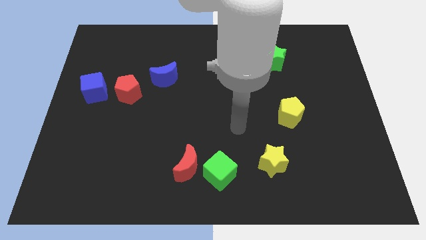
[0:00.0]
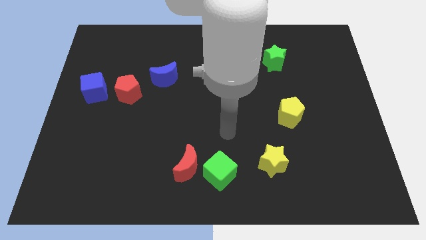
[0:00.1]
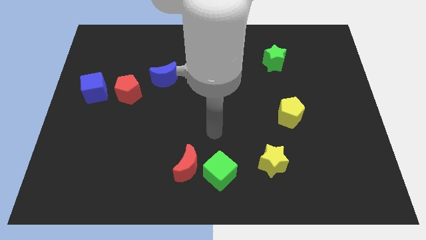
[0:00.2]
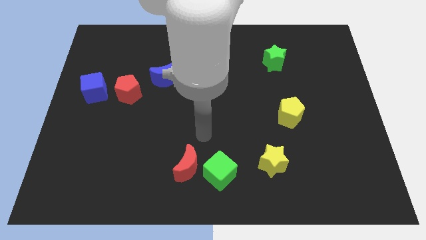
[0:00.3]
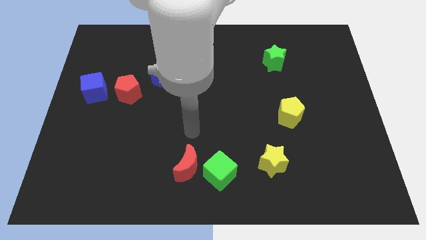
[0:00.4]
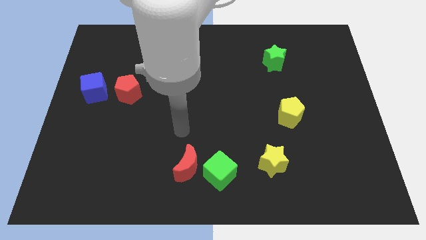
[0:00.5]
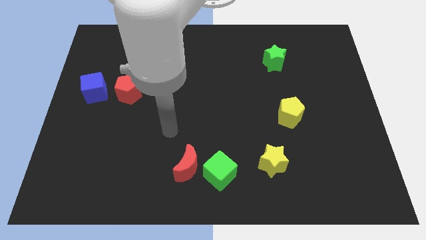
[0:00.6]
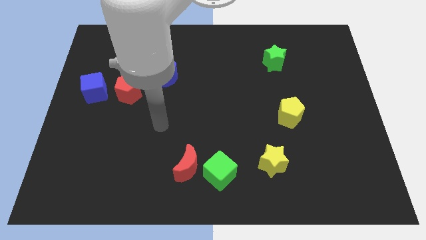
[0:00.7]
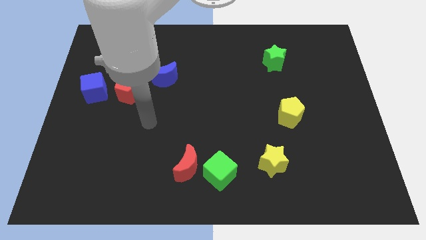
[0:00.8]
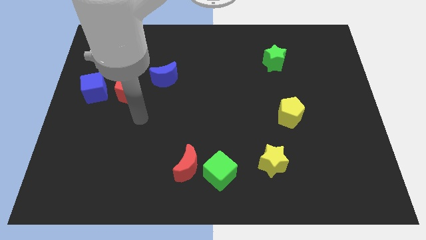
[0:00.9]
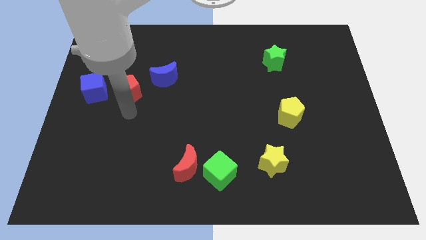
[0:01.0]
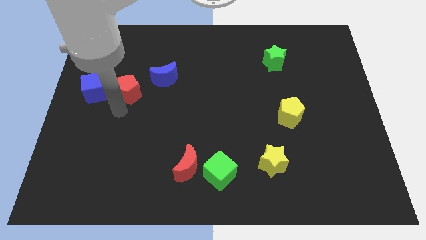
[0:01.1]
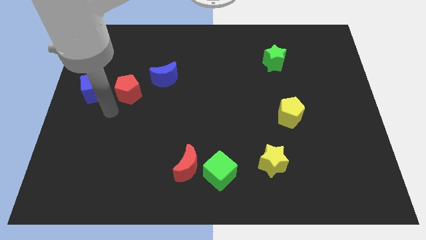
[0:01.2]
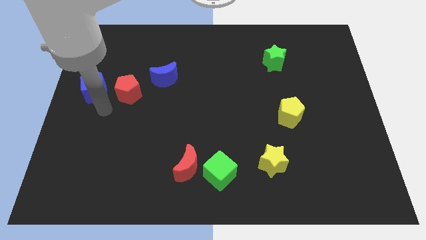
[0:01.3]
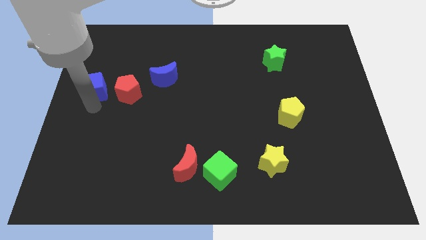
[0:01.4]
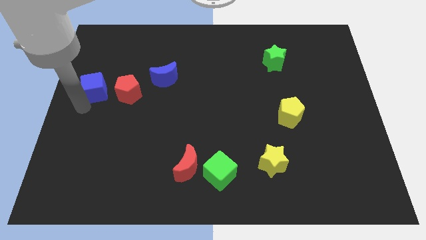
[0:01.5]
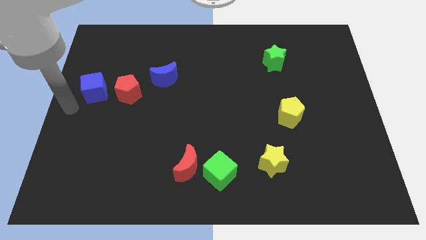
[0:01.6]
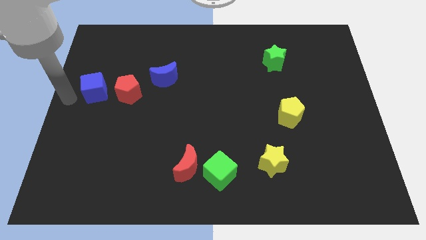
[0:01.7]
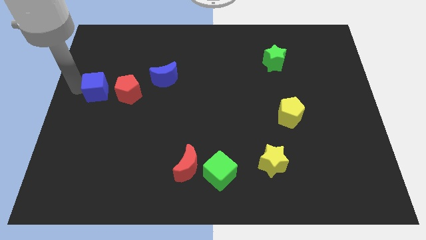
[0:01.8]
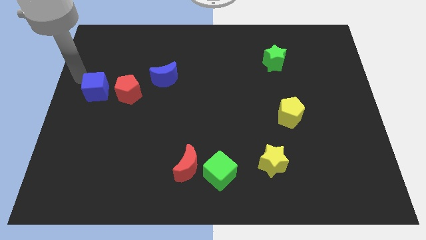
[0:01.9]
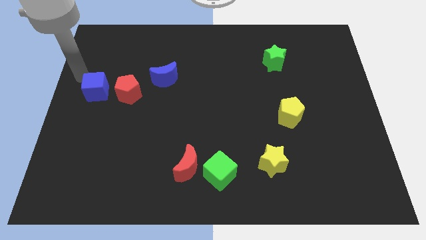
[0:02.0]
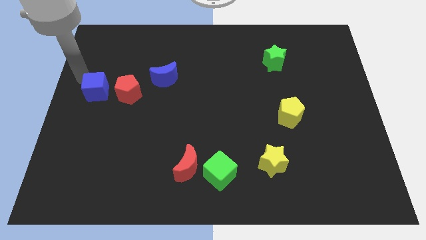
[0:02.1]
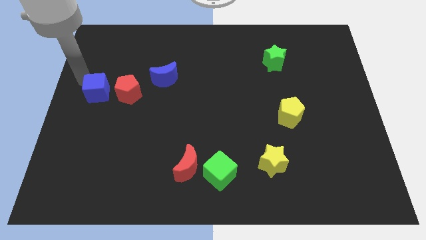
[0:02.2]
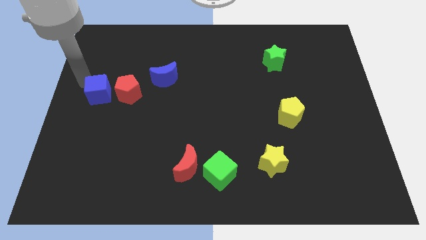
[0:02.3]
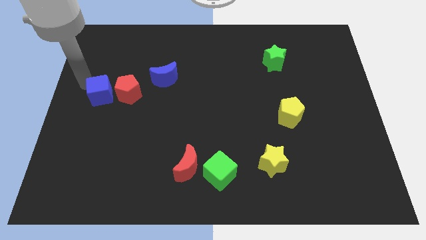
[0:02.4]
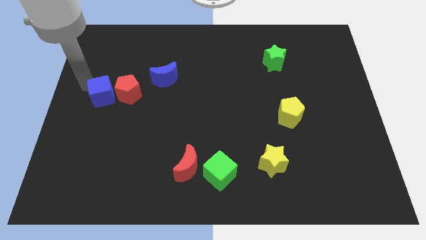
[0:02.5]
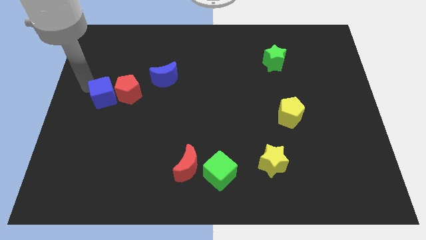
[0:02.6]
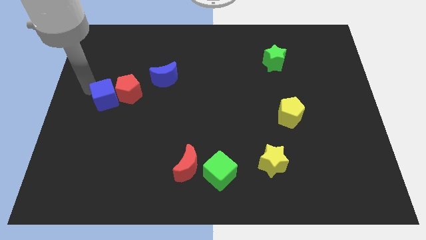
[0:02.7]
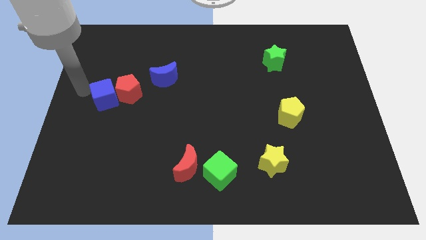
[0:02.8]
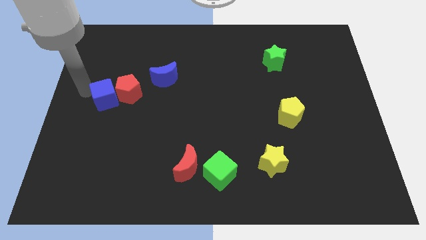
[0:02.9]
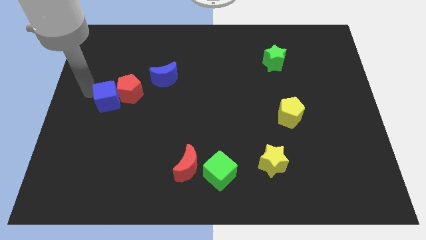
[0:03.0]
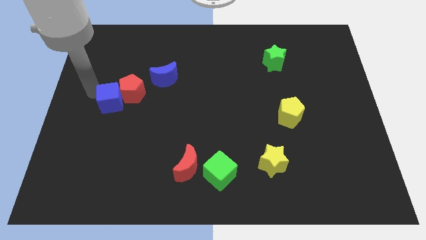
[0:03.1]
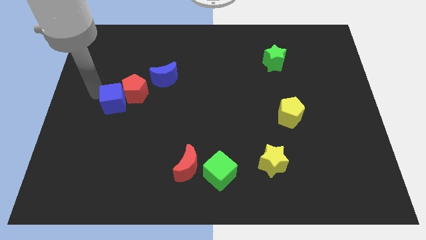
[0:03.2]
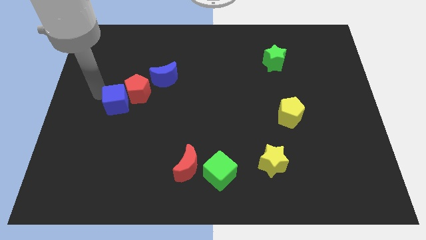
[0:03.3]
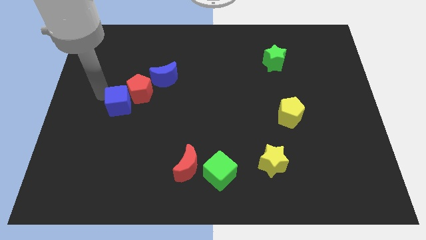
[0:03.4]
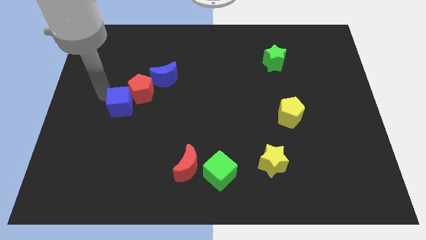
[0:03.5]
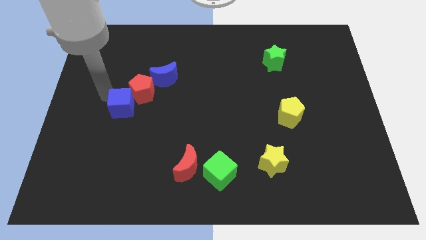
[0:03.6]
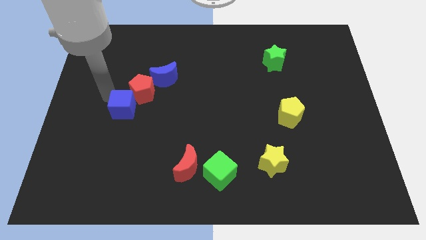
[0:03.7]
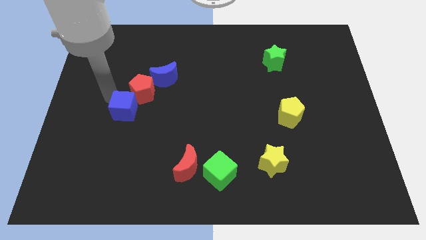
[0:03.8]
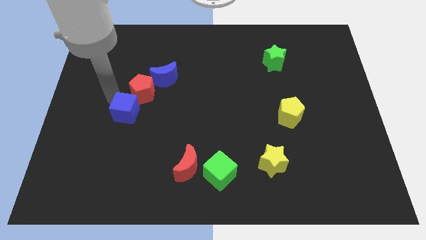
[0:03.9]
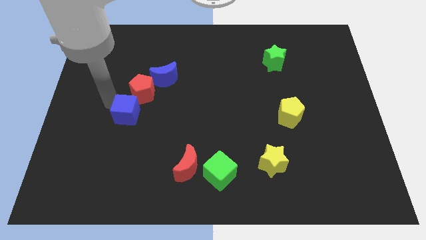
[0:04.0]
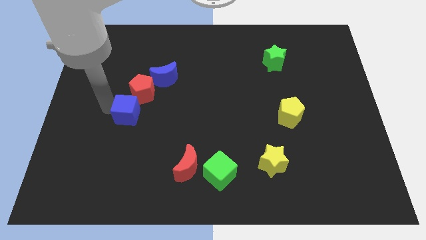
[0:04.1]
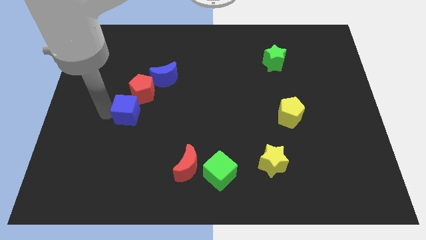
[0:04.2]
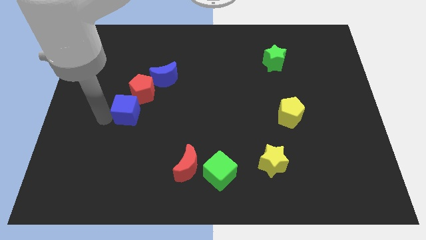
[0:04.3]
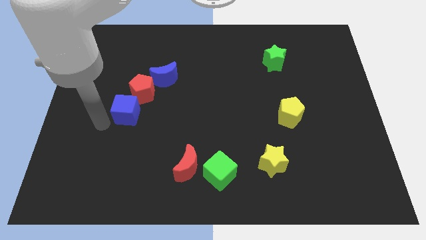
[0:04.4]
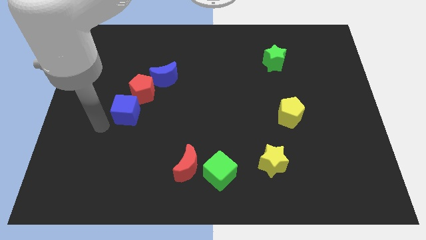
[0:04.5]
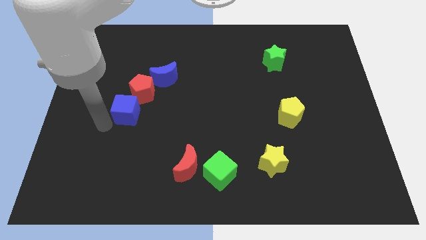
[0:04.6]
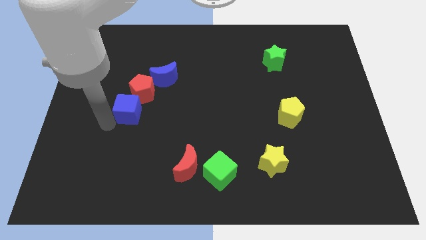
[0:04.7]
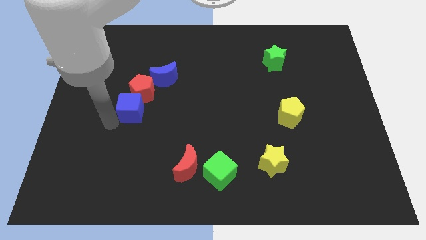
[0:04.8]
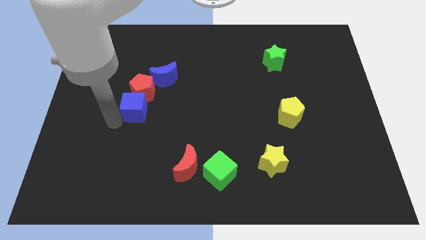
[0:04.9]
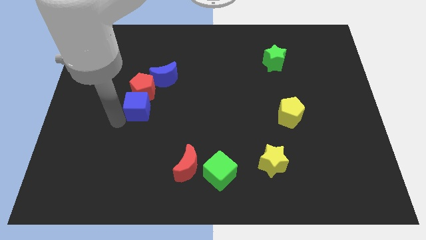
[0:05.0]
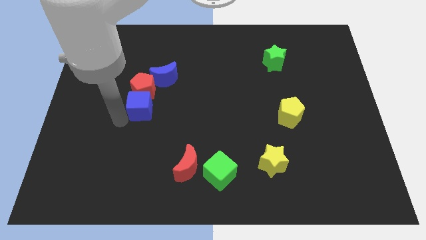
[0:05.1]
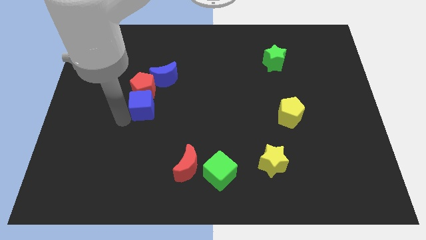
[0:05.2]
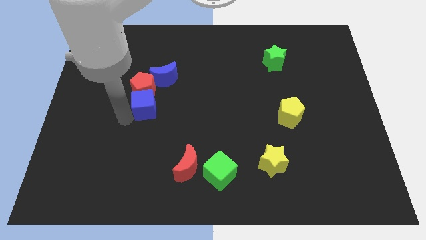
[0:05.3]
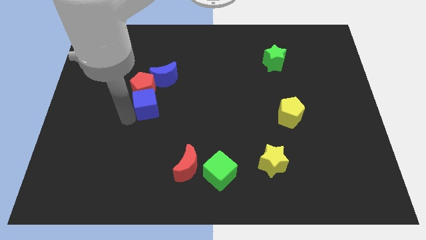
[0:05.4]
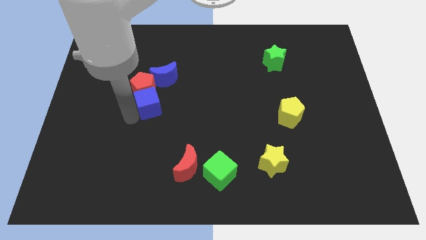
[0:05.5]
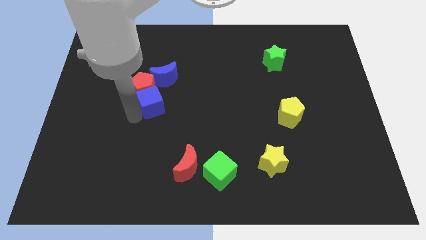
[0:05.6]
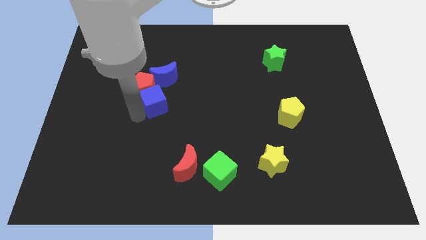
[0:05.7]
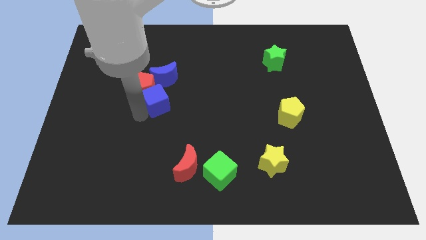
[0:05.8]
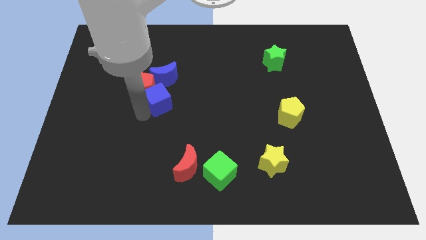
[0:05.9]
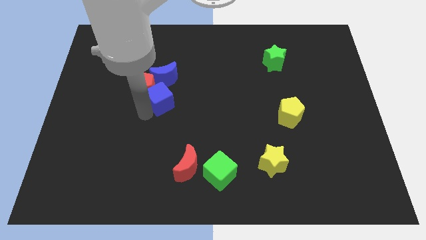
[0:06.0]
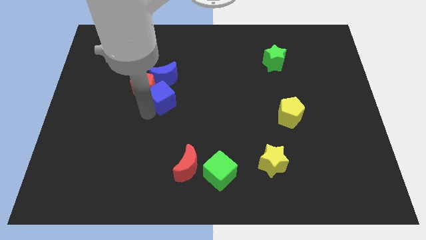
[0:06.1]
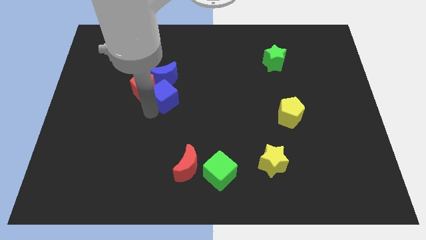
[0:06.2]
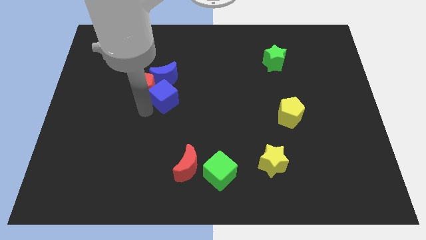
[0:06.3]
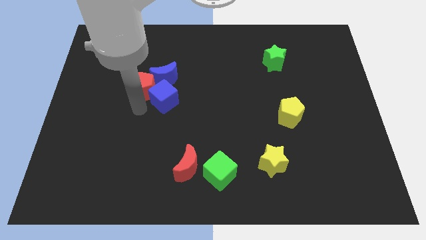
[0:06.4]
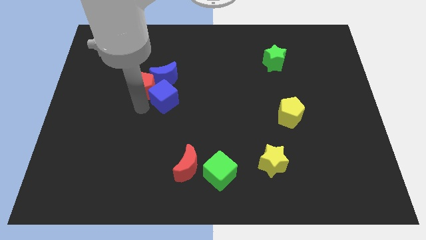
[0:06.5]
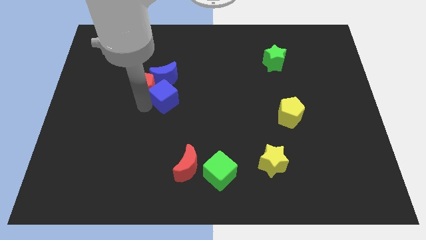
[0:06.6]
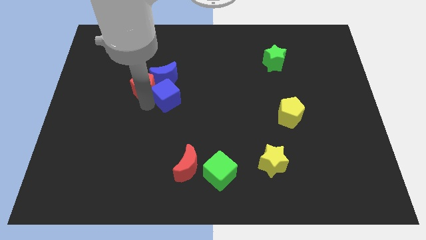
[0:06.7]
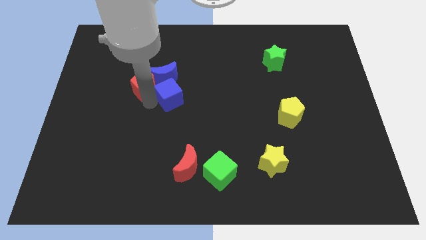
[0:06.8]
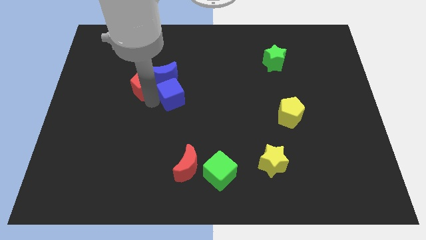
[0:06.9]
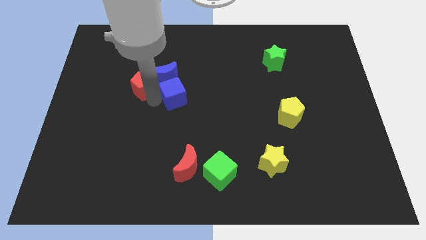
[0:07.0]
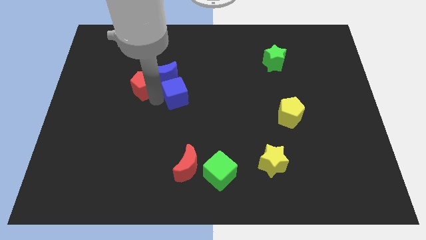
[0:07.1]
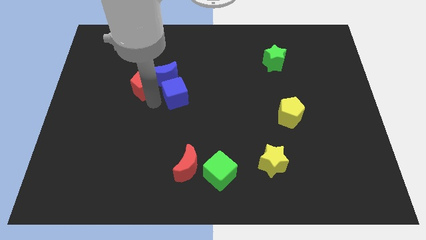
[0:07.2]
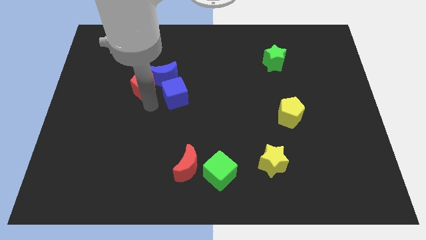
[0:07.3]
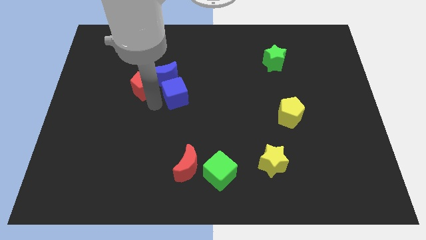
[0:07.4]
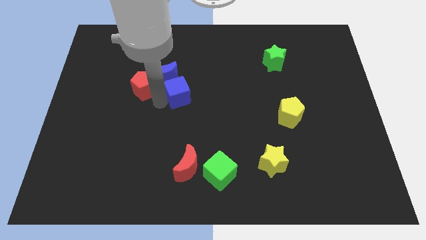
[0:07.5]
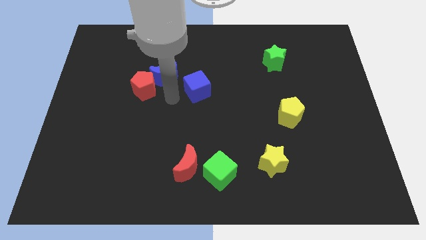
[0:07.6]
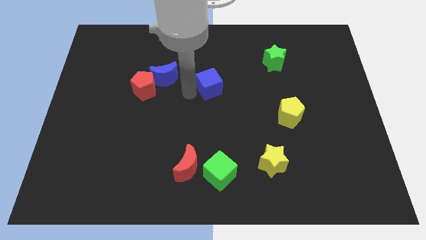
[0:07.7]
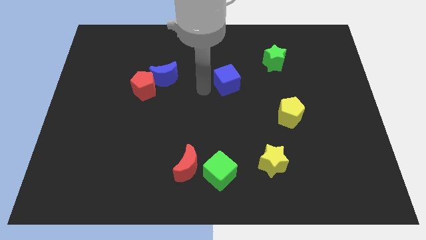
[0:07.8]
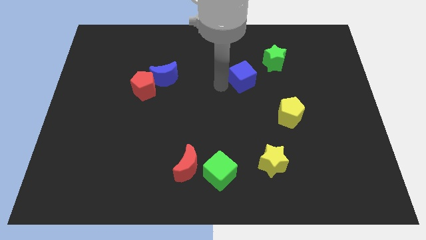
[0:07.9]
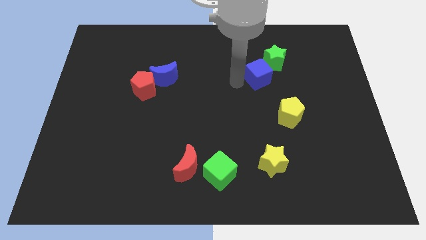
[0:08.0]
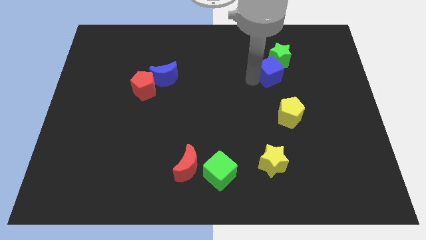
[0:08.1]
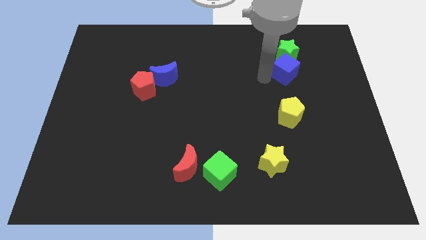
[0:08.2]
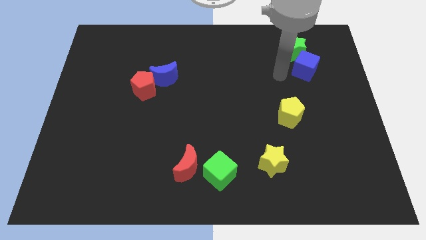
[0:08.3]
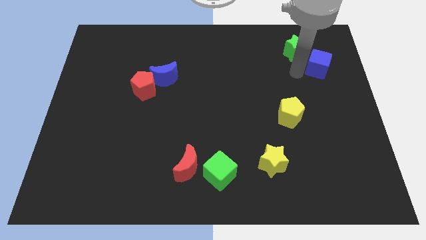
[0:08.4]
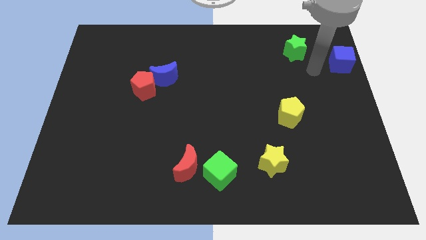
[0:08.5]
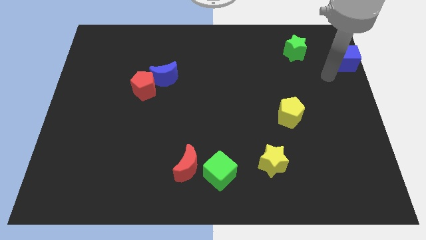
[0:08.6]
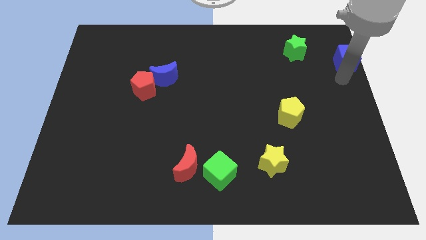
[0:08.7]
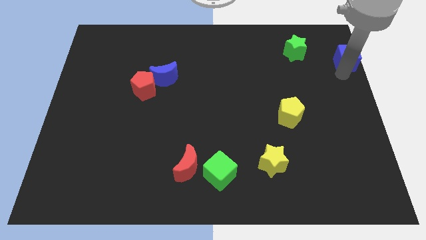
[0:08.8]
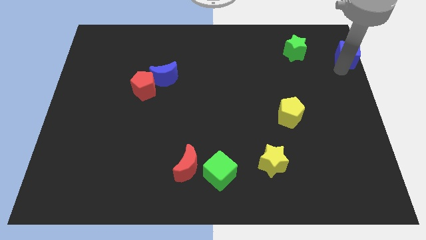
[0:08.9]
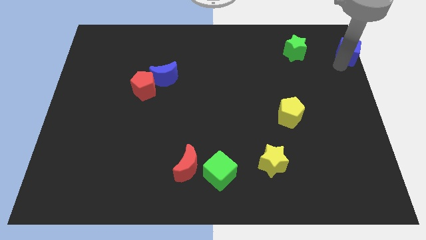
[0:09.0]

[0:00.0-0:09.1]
push the blue cube to the upper right corner
